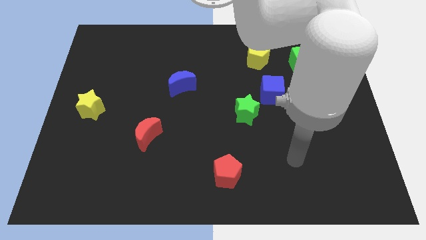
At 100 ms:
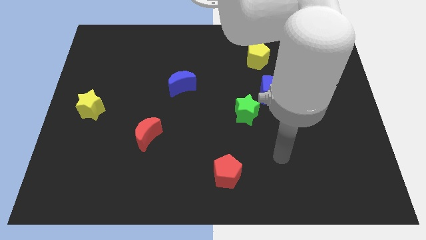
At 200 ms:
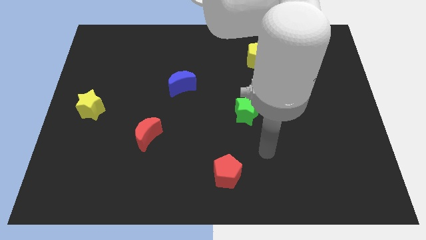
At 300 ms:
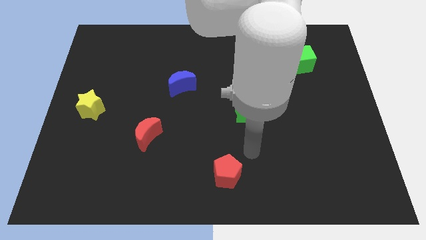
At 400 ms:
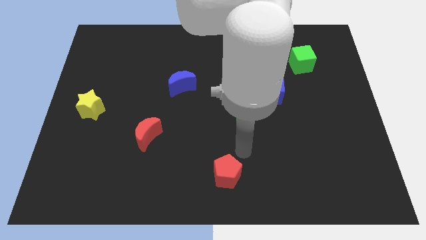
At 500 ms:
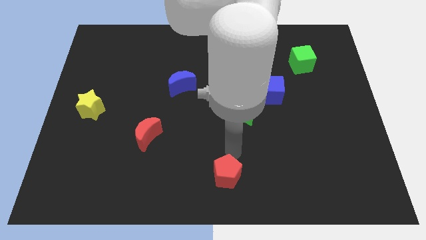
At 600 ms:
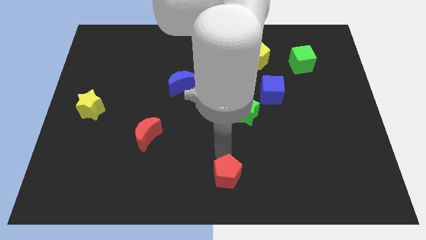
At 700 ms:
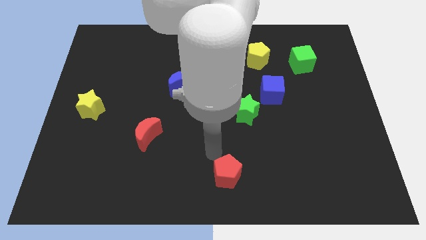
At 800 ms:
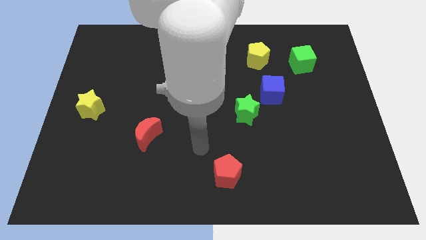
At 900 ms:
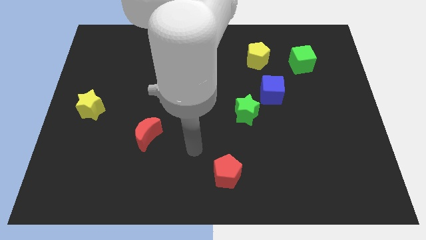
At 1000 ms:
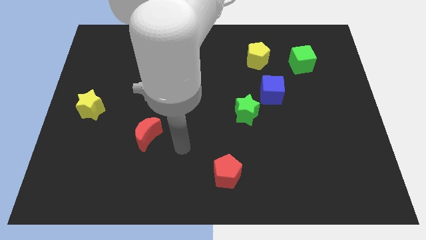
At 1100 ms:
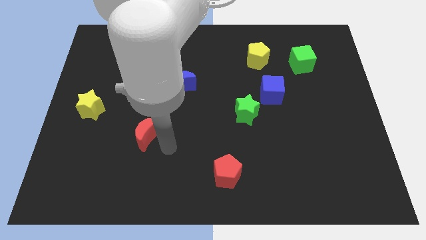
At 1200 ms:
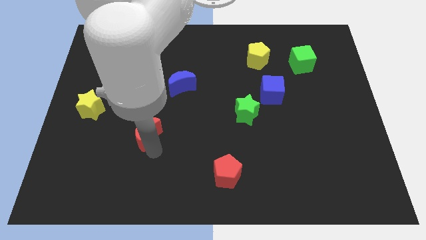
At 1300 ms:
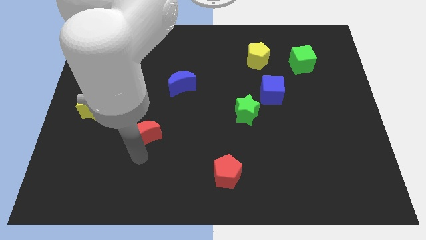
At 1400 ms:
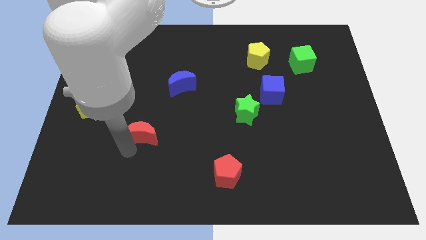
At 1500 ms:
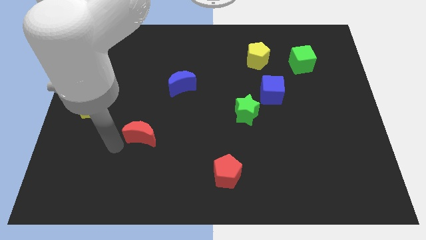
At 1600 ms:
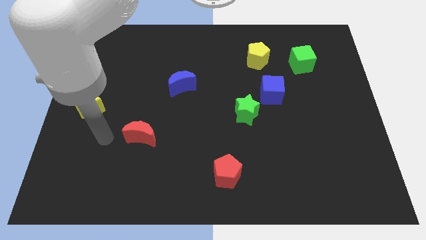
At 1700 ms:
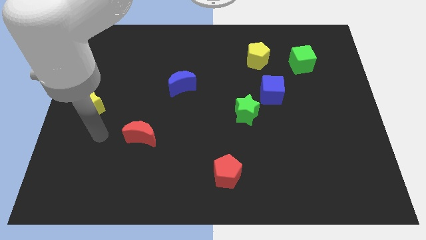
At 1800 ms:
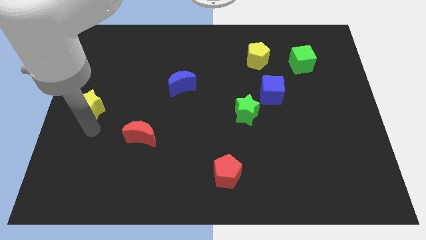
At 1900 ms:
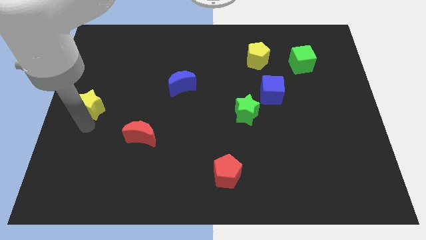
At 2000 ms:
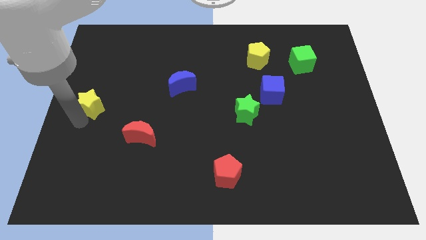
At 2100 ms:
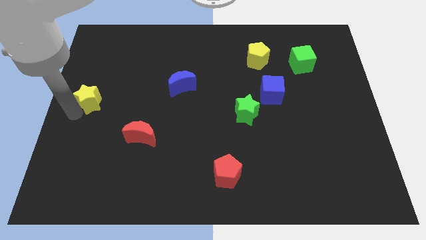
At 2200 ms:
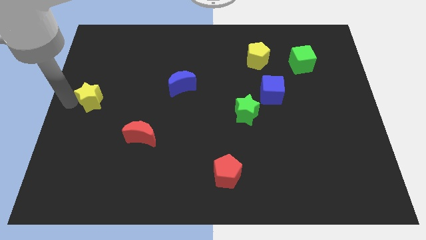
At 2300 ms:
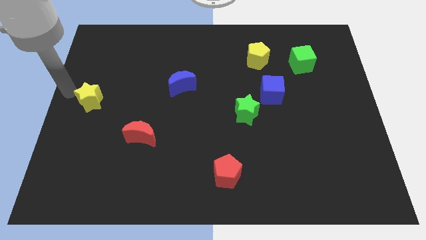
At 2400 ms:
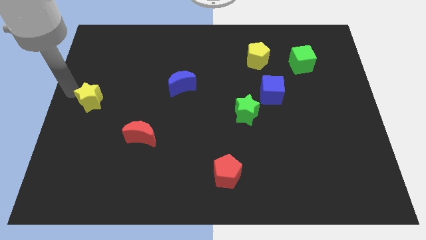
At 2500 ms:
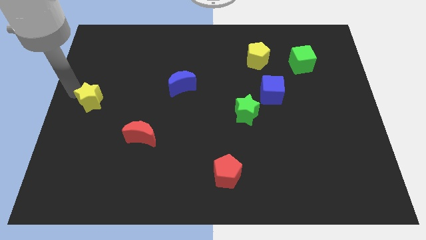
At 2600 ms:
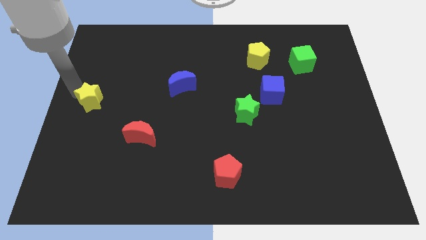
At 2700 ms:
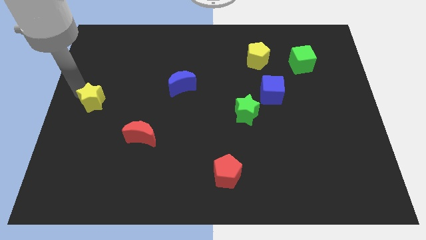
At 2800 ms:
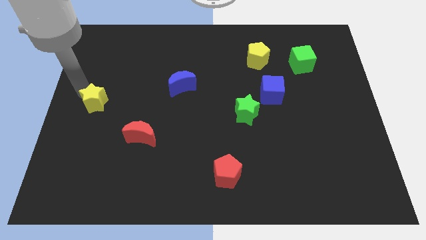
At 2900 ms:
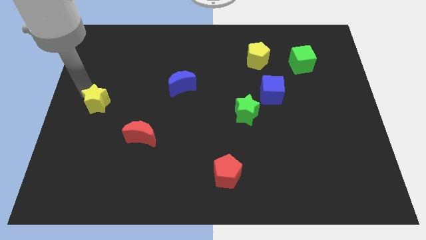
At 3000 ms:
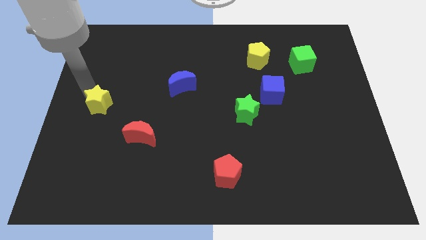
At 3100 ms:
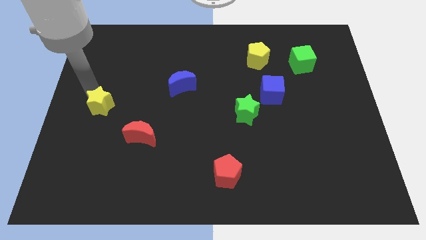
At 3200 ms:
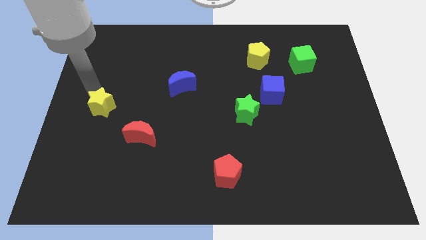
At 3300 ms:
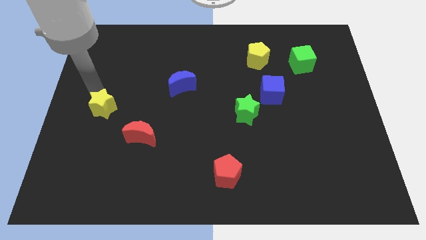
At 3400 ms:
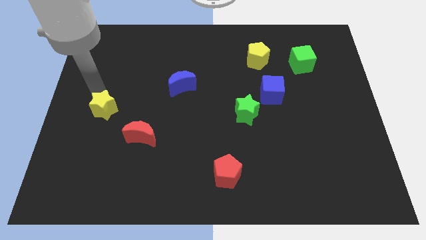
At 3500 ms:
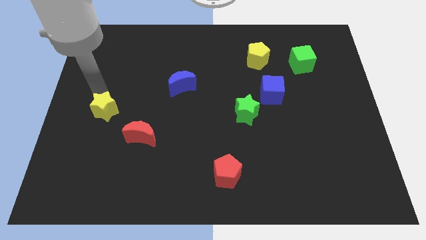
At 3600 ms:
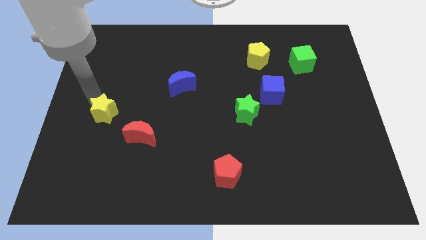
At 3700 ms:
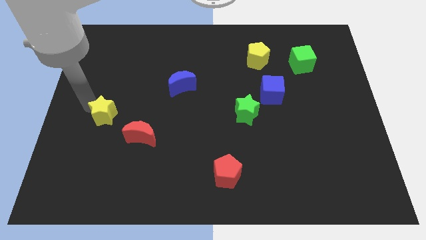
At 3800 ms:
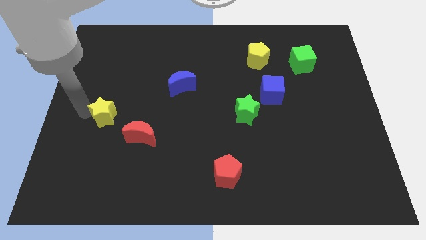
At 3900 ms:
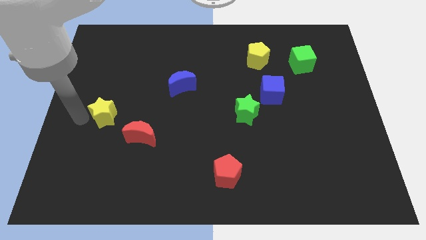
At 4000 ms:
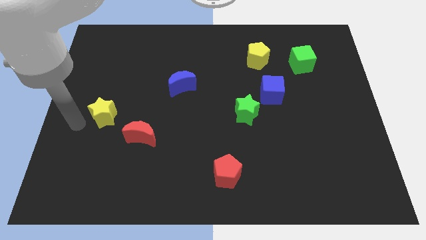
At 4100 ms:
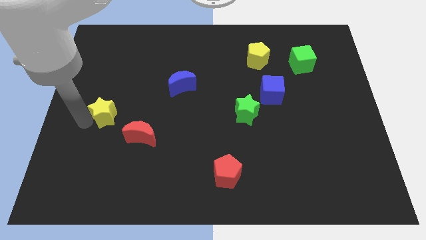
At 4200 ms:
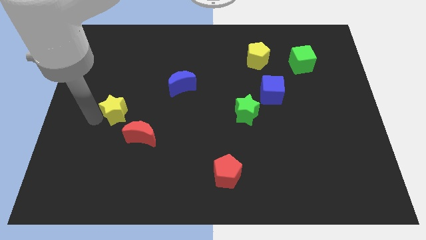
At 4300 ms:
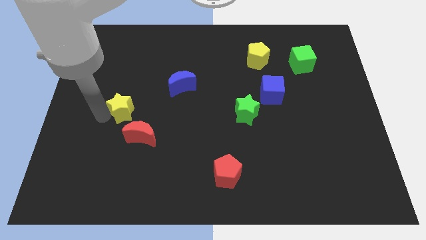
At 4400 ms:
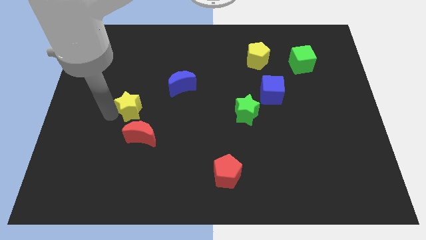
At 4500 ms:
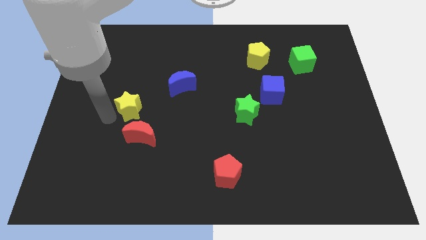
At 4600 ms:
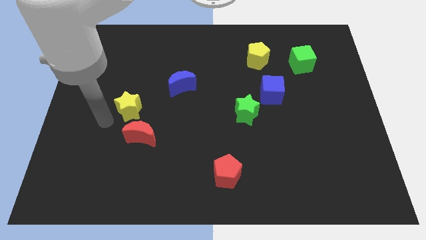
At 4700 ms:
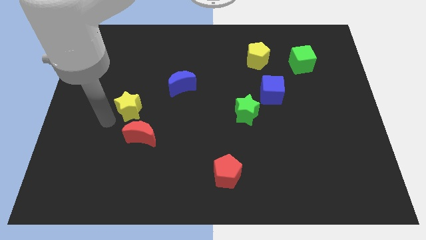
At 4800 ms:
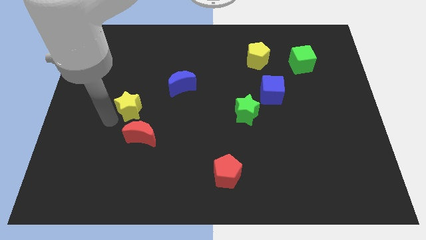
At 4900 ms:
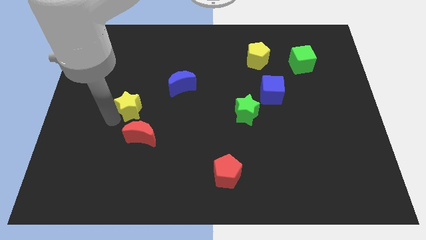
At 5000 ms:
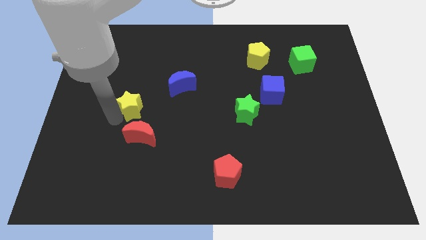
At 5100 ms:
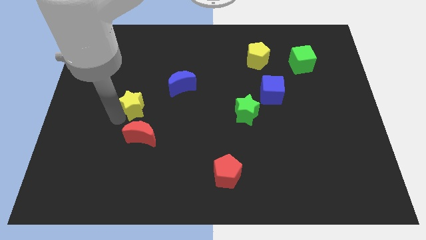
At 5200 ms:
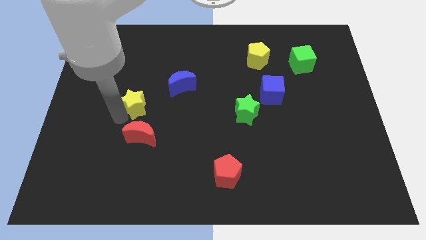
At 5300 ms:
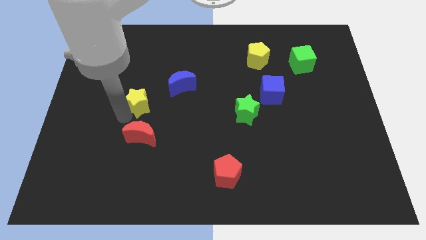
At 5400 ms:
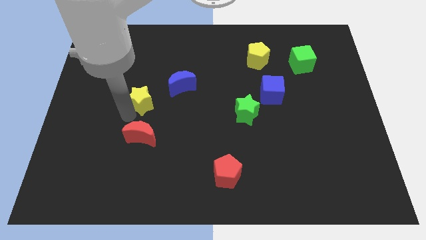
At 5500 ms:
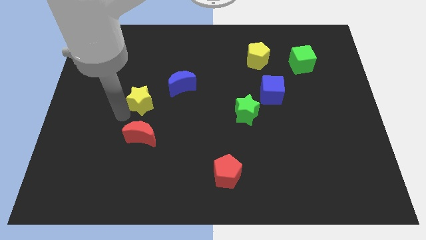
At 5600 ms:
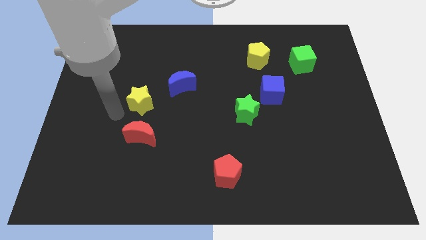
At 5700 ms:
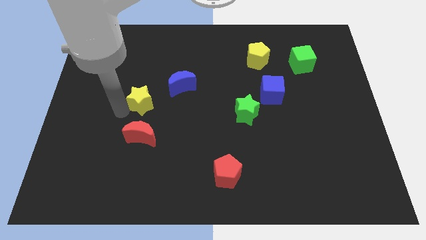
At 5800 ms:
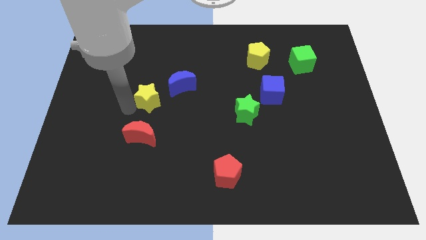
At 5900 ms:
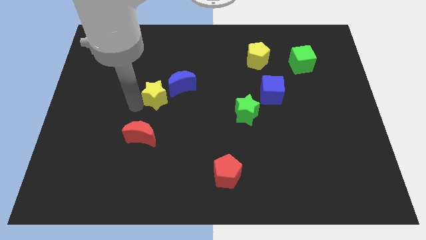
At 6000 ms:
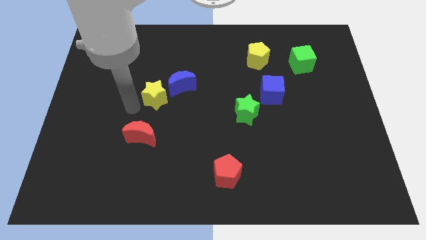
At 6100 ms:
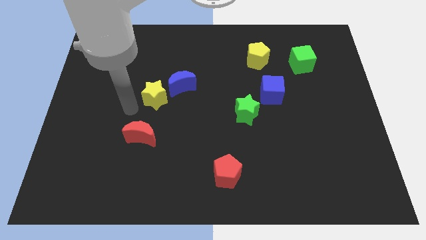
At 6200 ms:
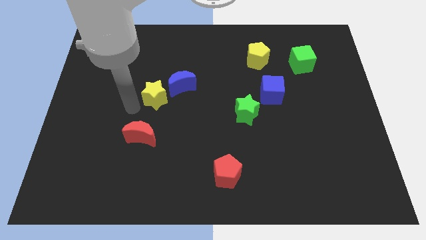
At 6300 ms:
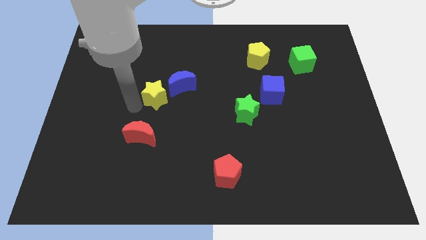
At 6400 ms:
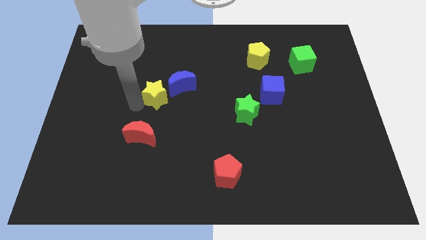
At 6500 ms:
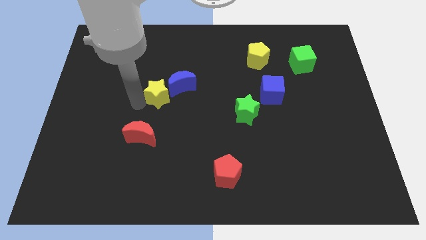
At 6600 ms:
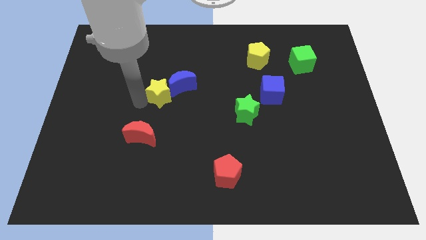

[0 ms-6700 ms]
put the yellow star to the blue moon
